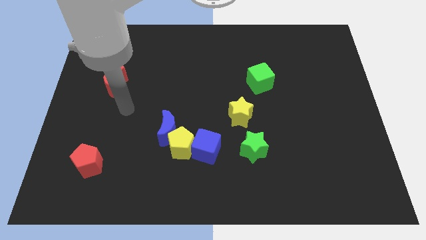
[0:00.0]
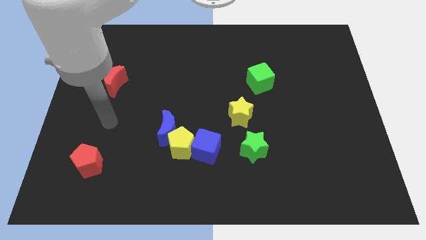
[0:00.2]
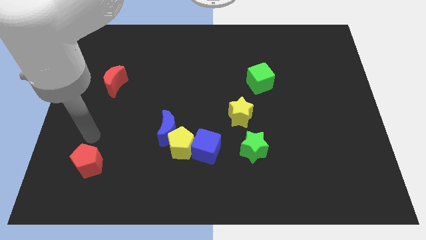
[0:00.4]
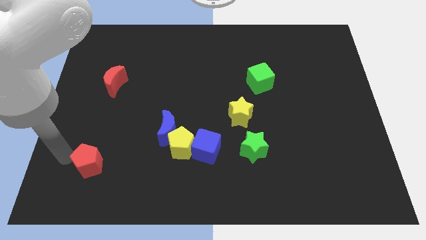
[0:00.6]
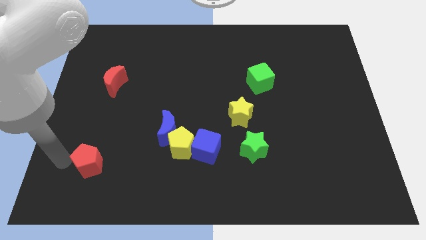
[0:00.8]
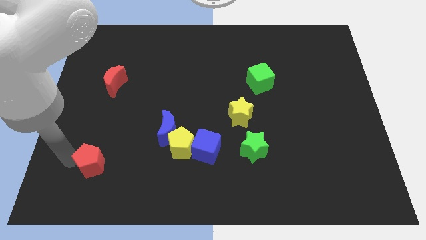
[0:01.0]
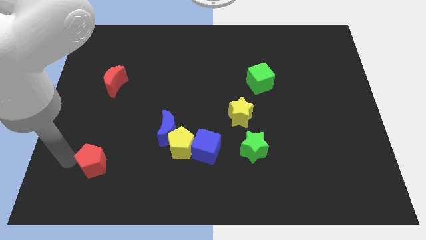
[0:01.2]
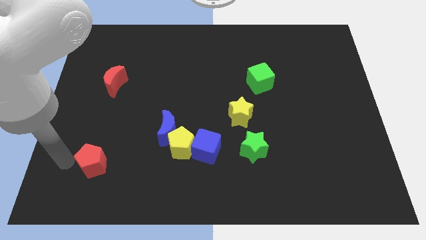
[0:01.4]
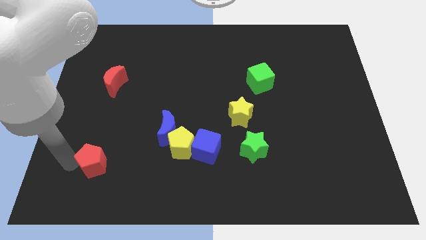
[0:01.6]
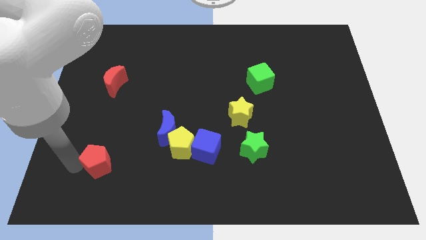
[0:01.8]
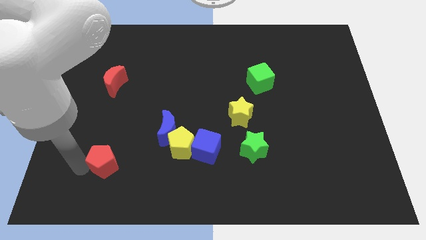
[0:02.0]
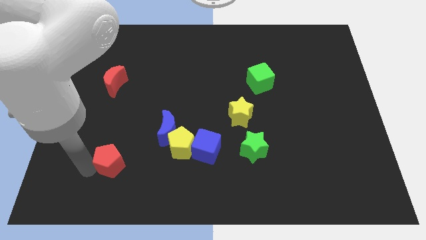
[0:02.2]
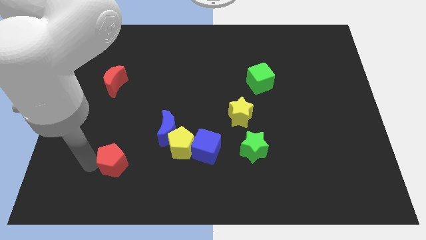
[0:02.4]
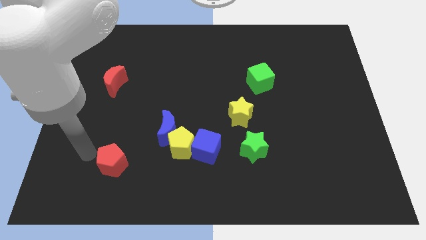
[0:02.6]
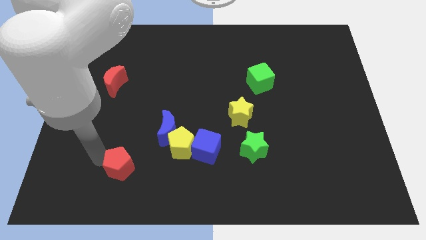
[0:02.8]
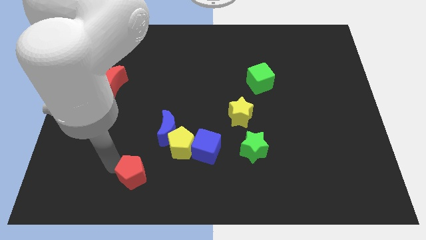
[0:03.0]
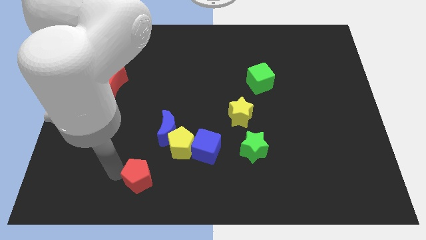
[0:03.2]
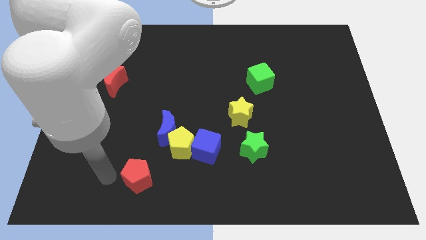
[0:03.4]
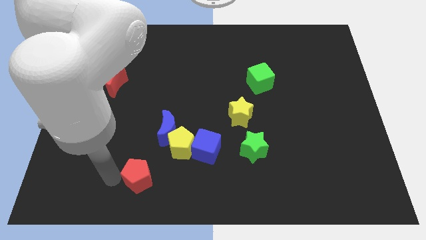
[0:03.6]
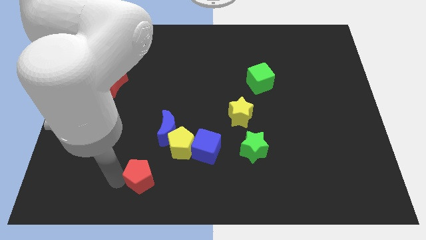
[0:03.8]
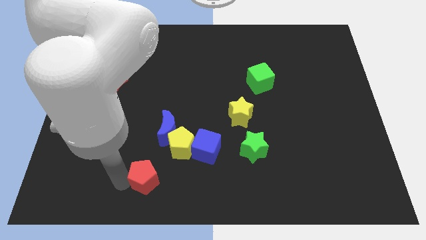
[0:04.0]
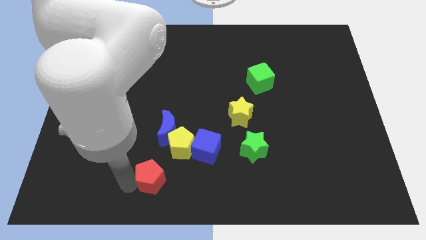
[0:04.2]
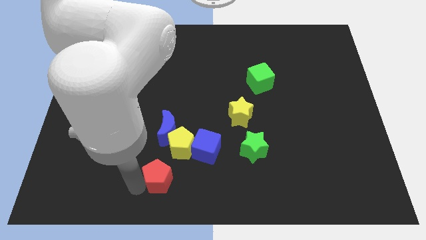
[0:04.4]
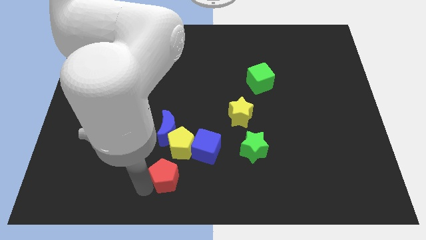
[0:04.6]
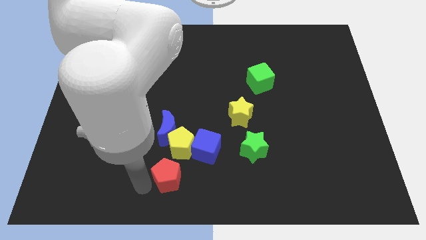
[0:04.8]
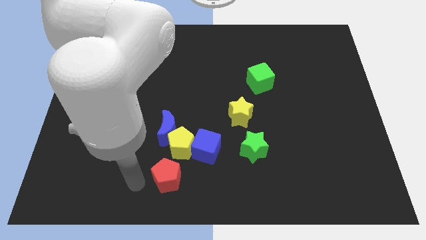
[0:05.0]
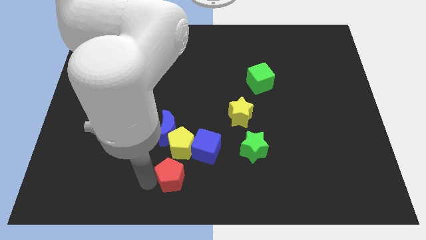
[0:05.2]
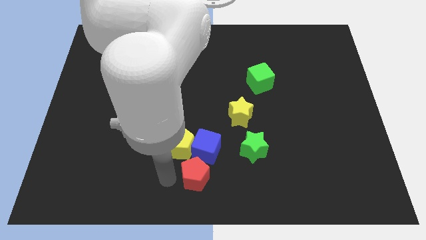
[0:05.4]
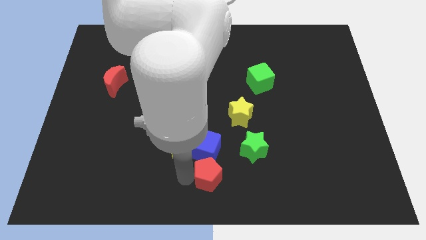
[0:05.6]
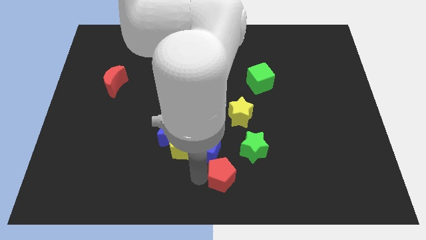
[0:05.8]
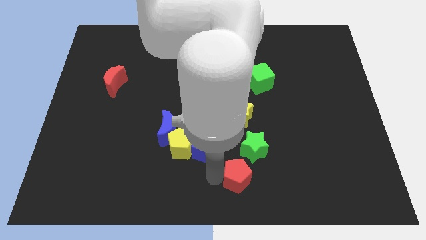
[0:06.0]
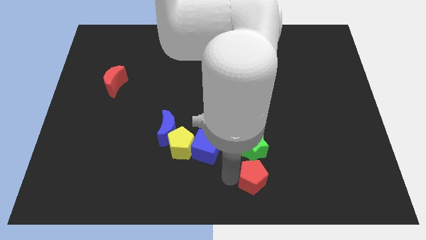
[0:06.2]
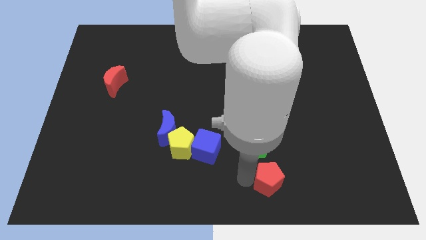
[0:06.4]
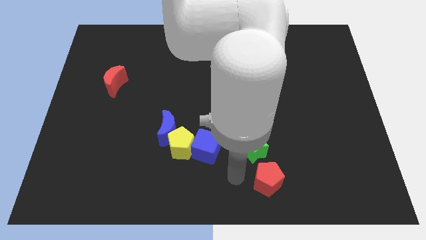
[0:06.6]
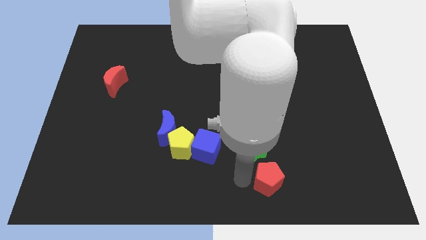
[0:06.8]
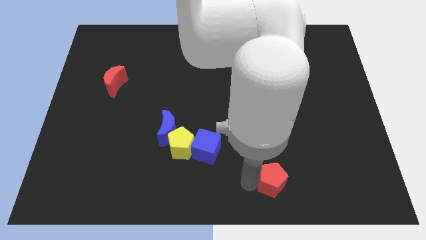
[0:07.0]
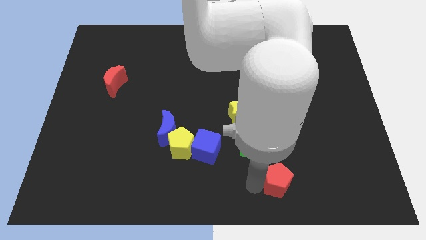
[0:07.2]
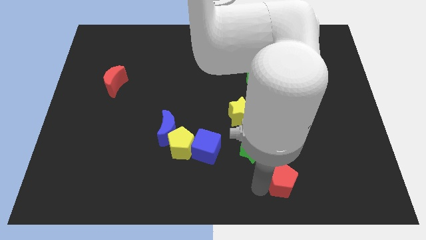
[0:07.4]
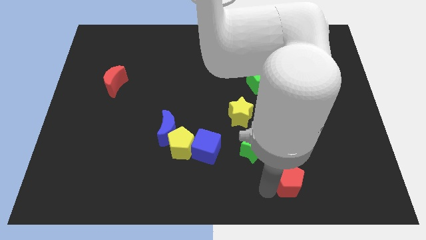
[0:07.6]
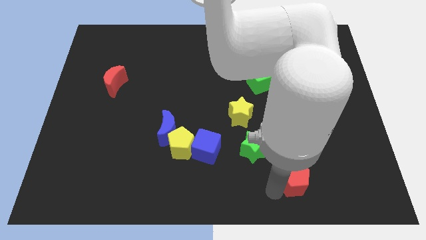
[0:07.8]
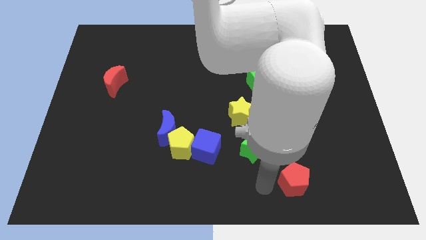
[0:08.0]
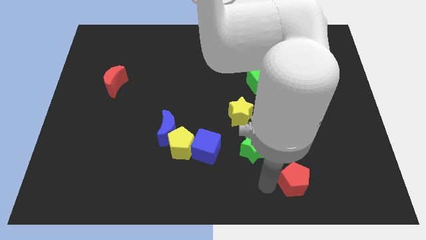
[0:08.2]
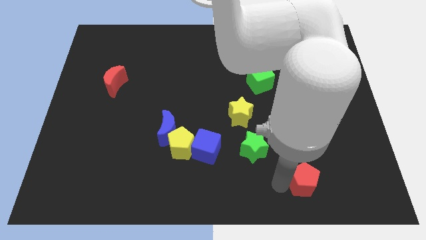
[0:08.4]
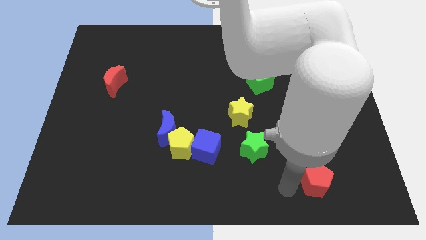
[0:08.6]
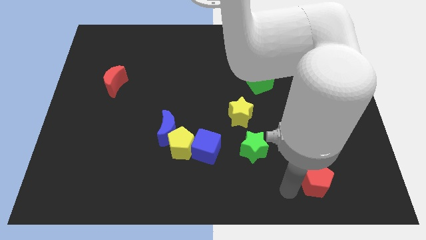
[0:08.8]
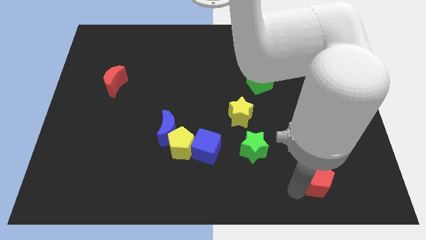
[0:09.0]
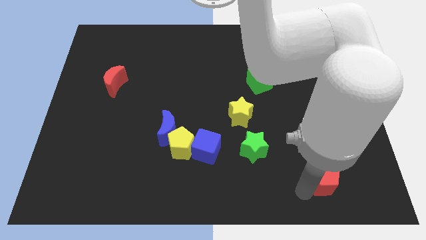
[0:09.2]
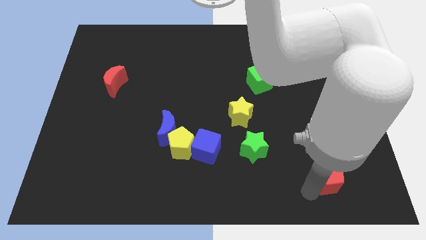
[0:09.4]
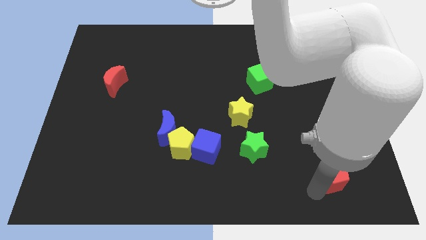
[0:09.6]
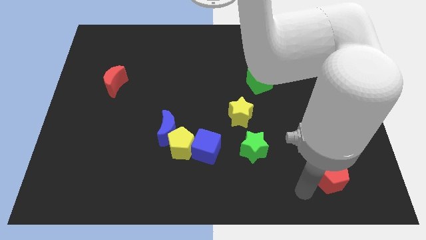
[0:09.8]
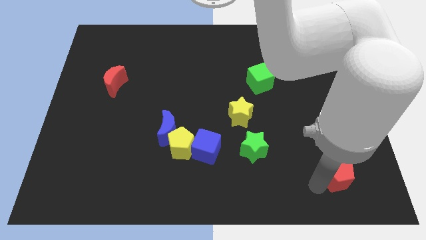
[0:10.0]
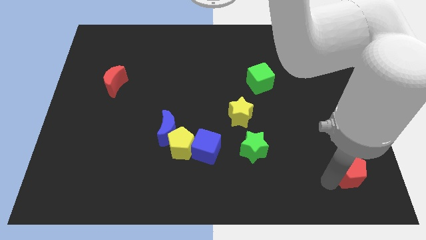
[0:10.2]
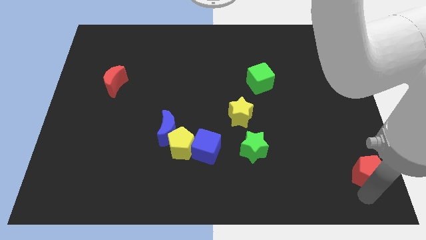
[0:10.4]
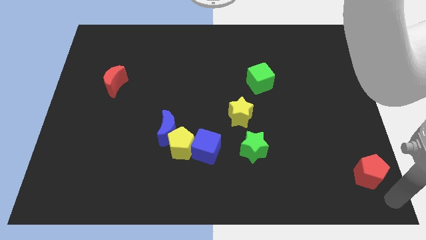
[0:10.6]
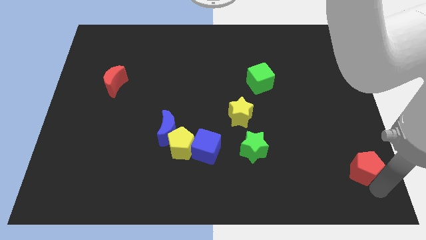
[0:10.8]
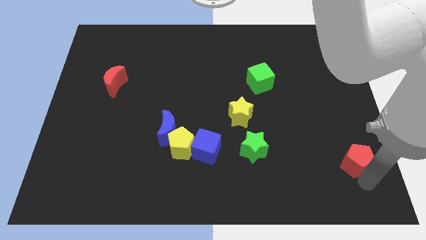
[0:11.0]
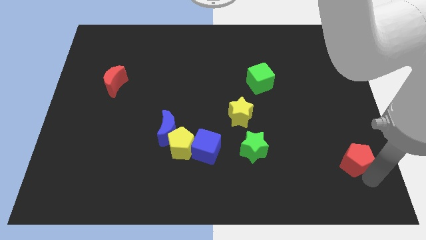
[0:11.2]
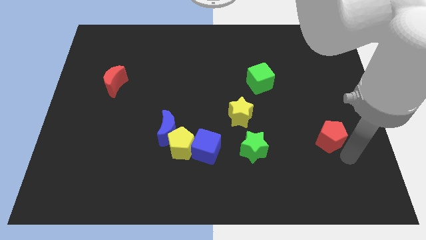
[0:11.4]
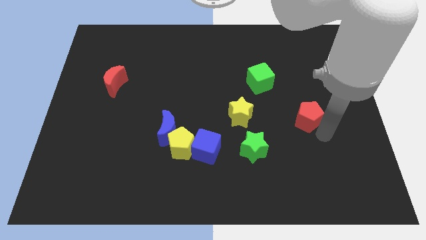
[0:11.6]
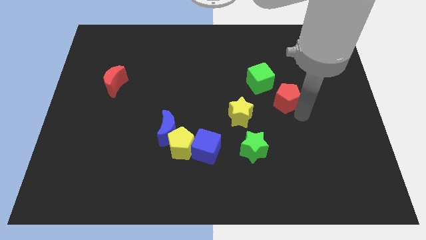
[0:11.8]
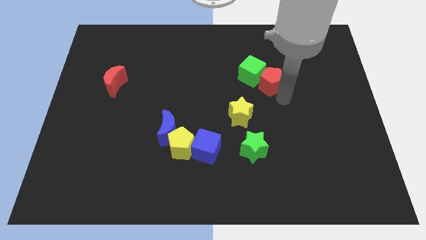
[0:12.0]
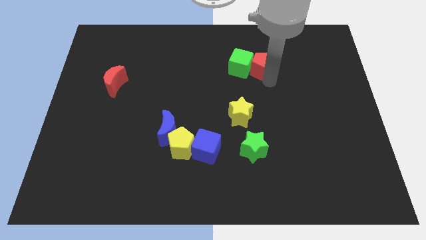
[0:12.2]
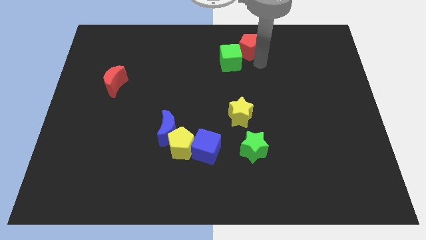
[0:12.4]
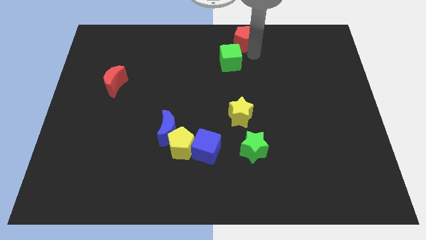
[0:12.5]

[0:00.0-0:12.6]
push the red pentagon to the top

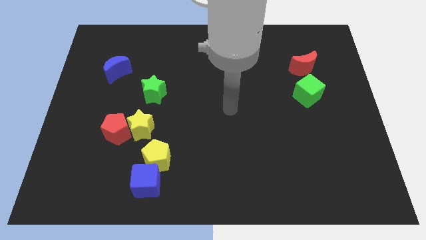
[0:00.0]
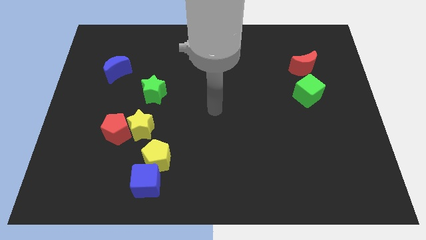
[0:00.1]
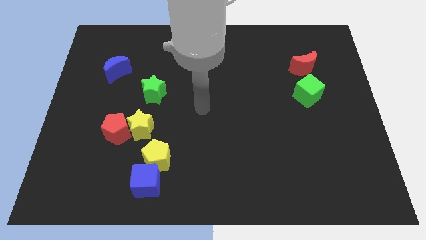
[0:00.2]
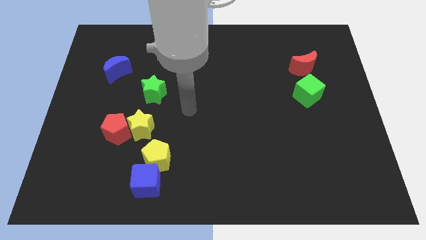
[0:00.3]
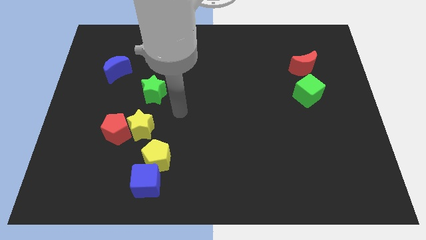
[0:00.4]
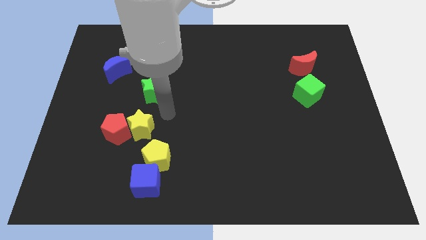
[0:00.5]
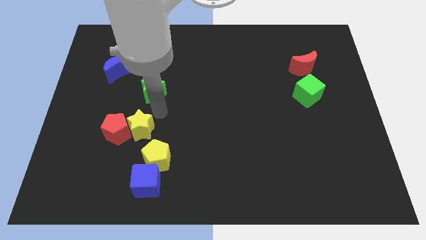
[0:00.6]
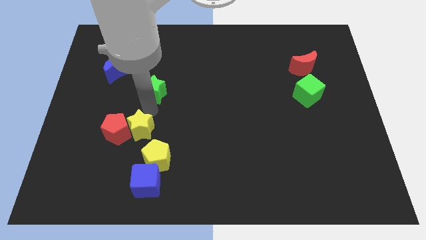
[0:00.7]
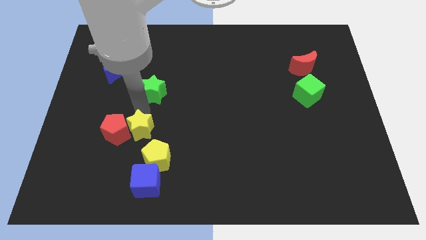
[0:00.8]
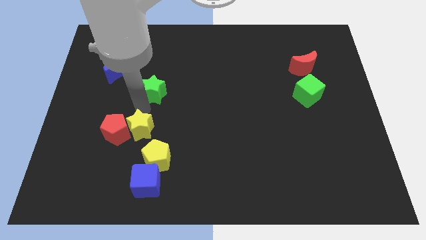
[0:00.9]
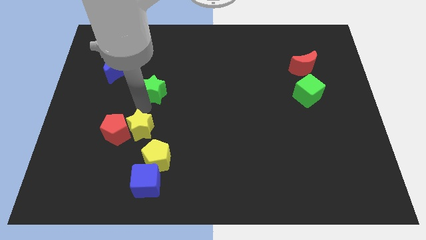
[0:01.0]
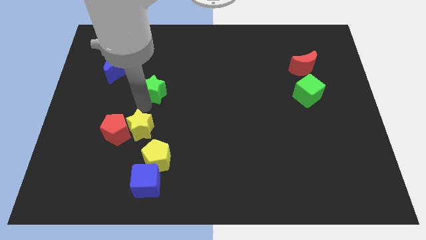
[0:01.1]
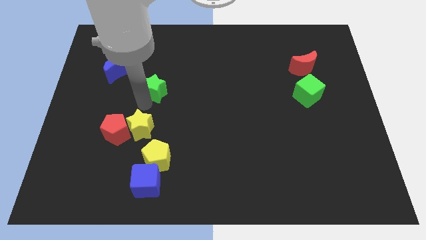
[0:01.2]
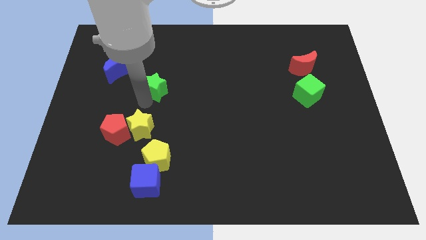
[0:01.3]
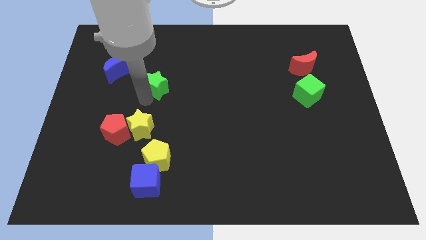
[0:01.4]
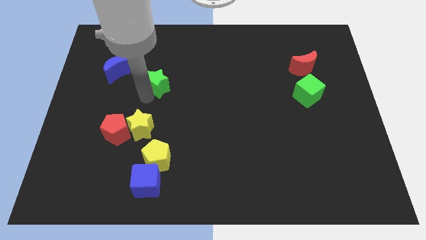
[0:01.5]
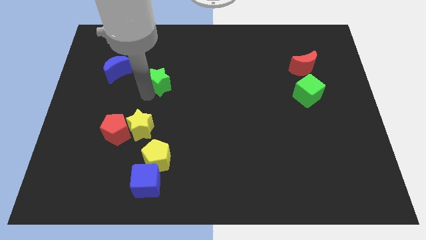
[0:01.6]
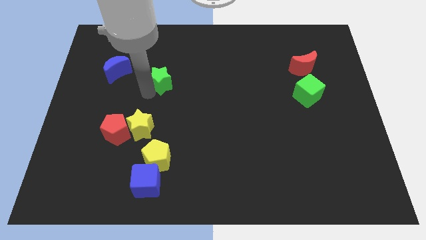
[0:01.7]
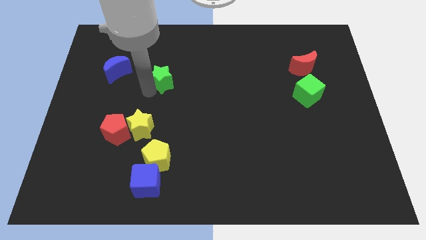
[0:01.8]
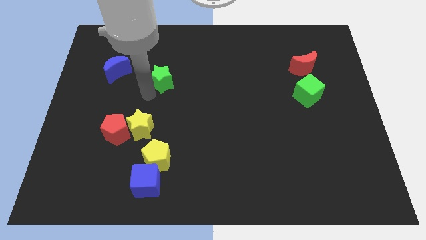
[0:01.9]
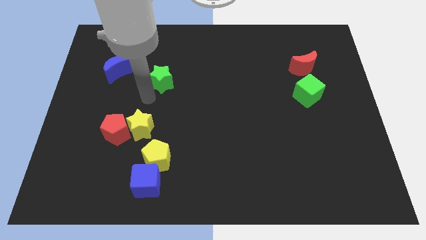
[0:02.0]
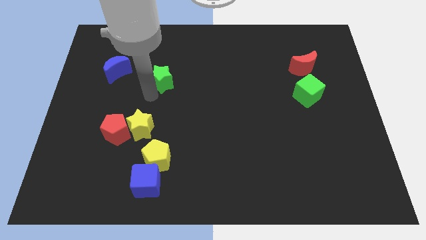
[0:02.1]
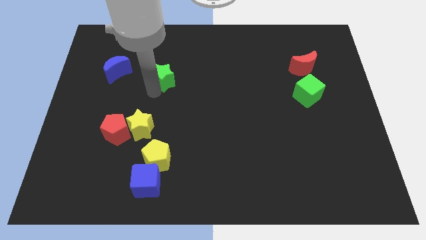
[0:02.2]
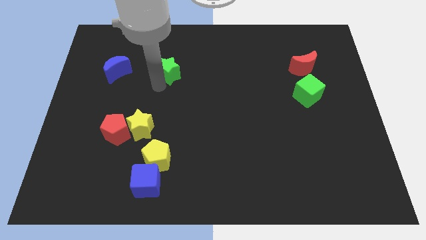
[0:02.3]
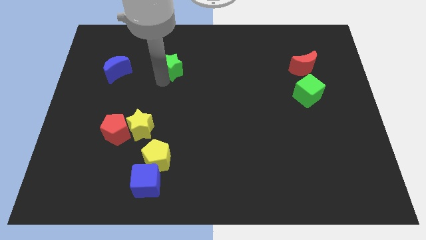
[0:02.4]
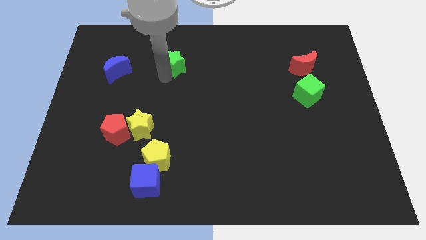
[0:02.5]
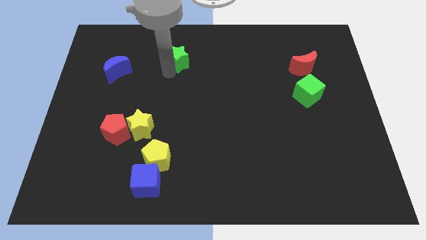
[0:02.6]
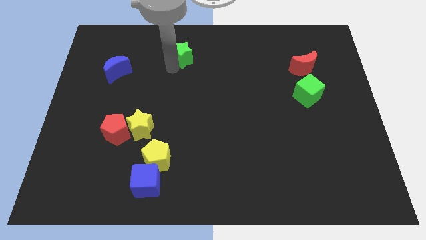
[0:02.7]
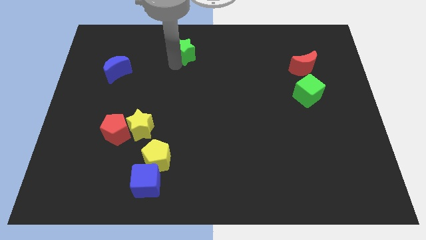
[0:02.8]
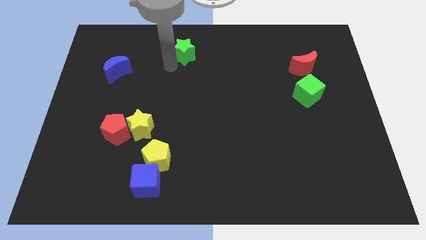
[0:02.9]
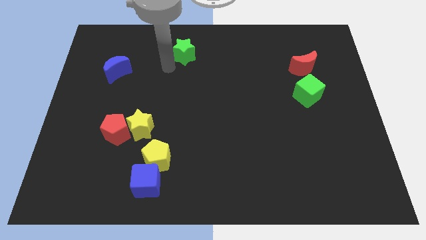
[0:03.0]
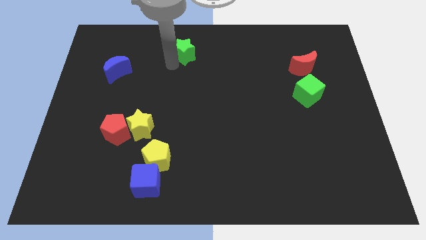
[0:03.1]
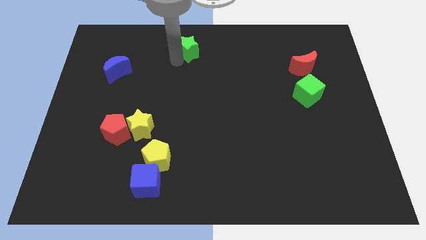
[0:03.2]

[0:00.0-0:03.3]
push the green star to the towards your base
